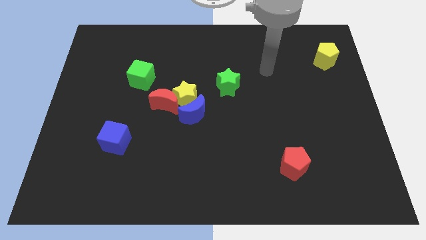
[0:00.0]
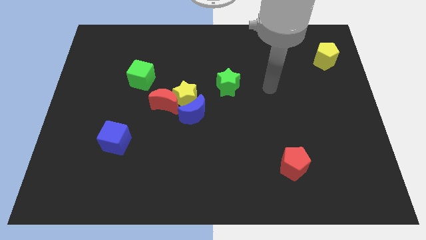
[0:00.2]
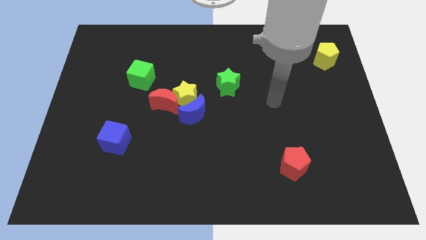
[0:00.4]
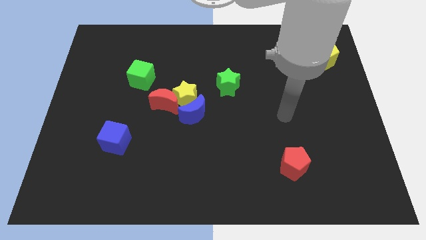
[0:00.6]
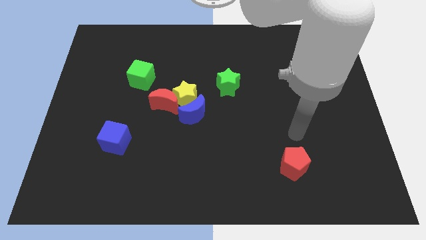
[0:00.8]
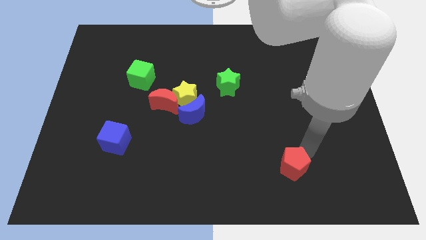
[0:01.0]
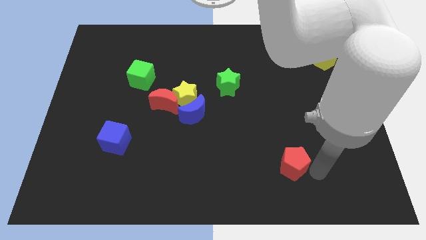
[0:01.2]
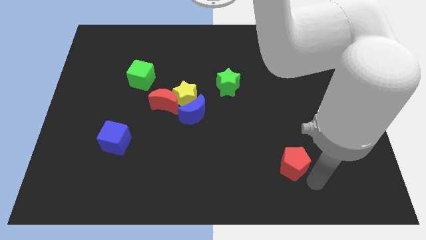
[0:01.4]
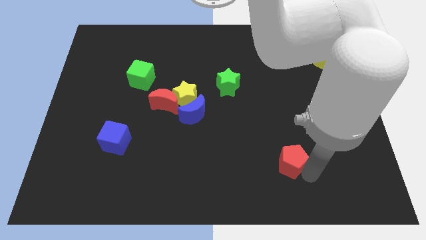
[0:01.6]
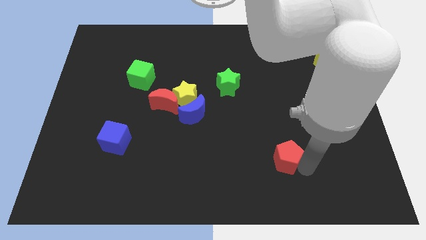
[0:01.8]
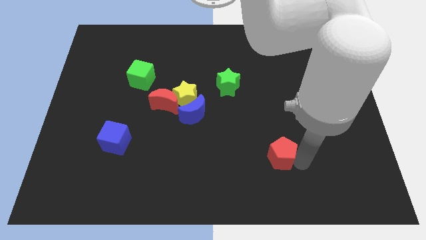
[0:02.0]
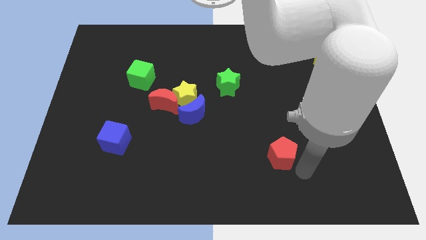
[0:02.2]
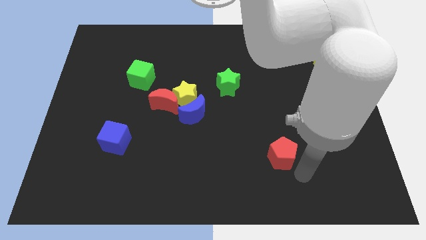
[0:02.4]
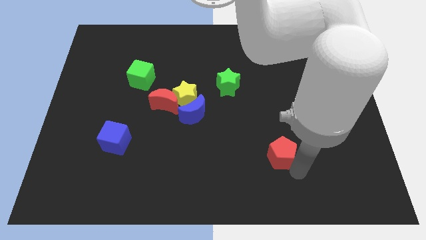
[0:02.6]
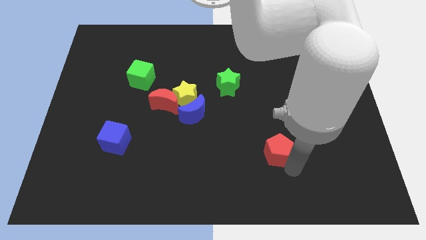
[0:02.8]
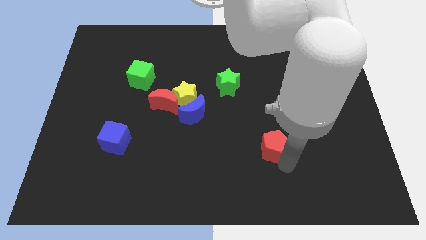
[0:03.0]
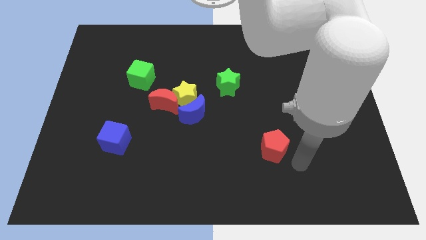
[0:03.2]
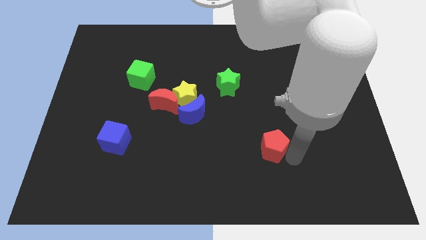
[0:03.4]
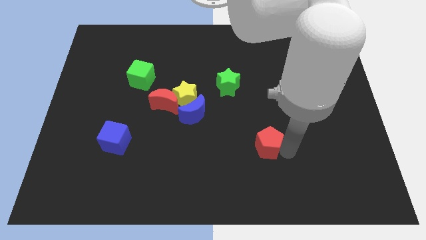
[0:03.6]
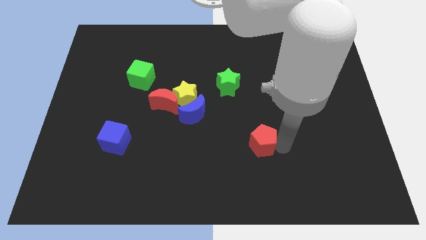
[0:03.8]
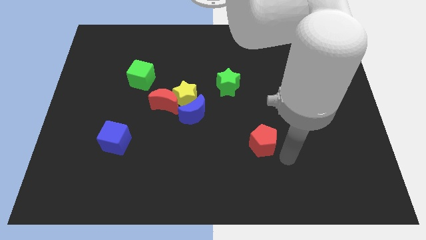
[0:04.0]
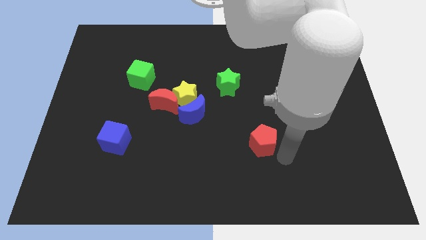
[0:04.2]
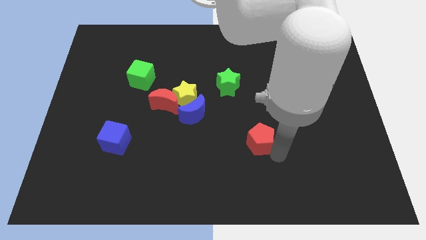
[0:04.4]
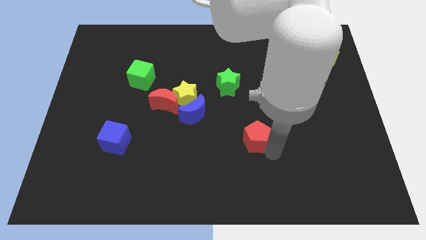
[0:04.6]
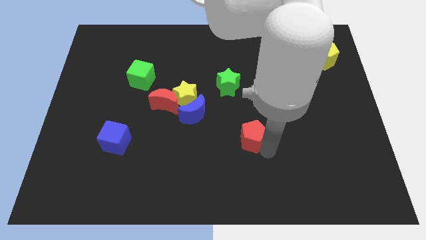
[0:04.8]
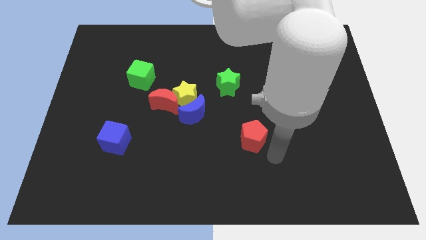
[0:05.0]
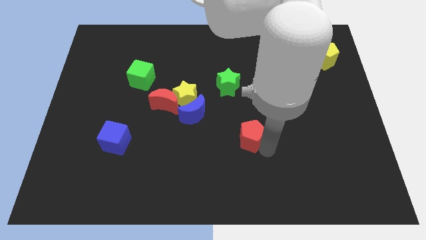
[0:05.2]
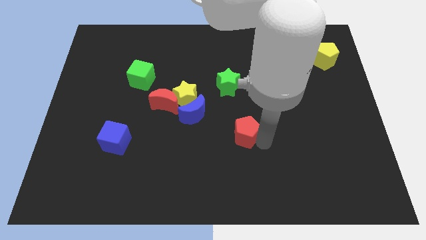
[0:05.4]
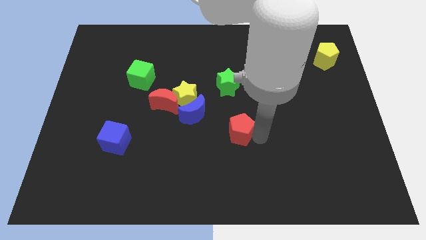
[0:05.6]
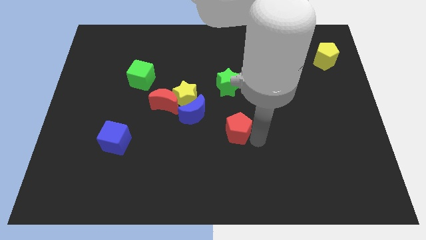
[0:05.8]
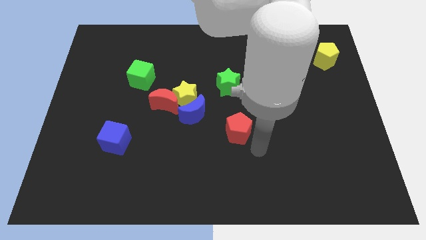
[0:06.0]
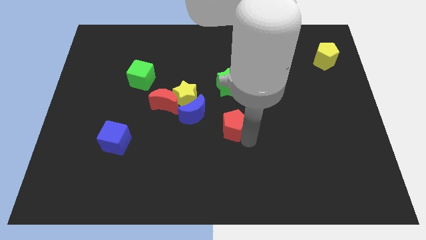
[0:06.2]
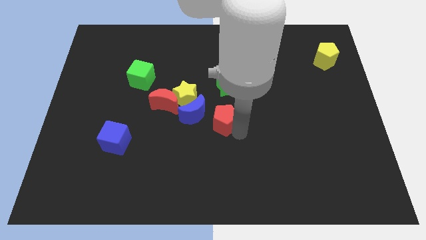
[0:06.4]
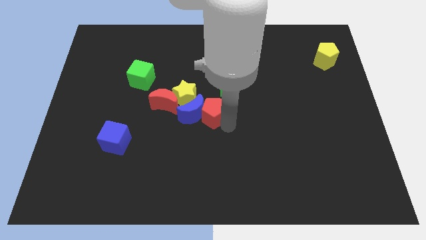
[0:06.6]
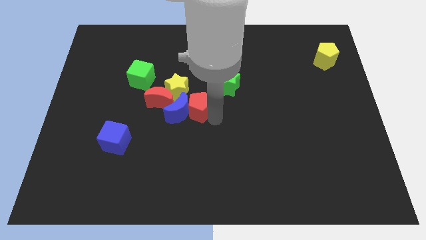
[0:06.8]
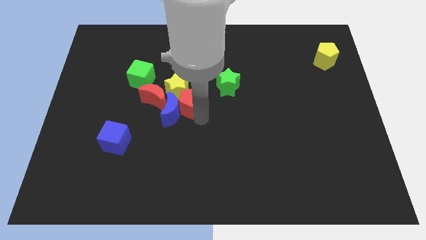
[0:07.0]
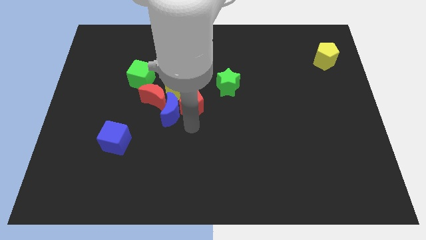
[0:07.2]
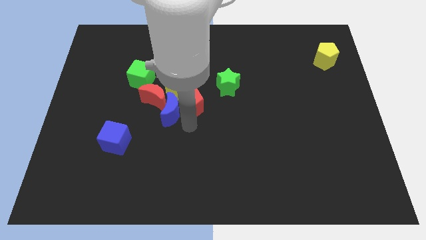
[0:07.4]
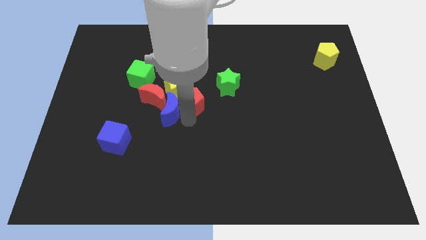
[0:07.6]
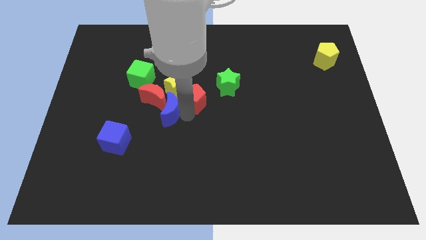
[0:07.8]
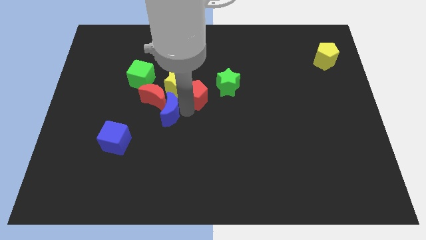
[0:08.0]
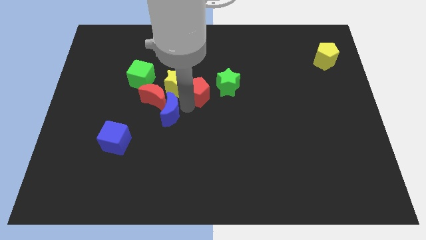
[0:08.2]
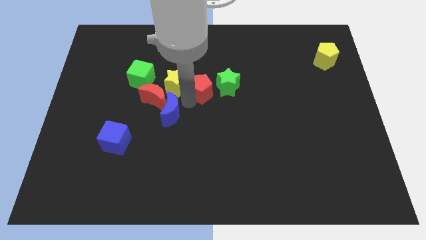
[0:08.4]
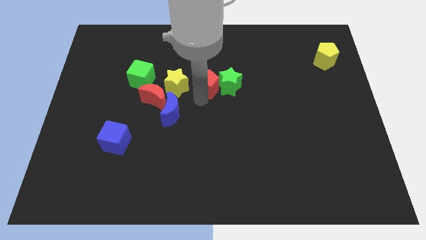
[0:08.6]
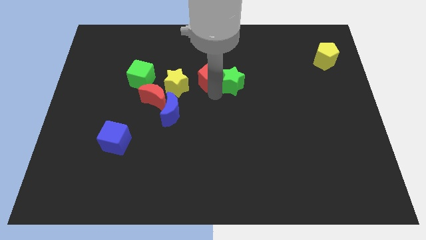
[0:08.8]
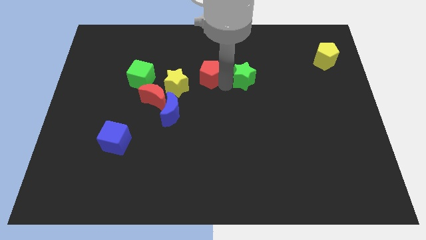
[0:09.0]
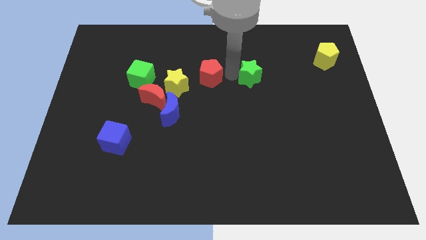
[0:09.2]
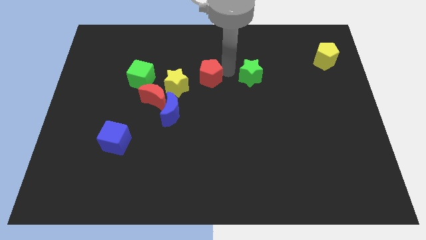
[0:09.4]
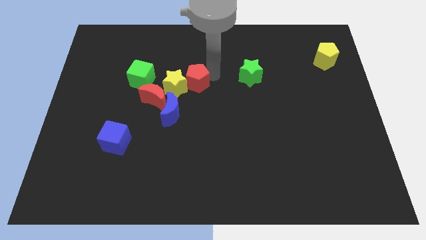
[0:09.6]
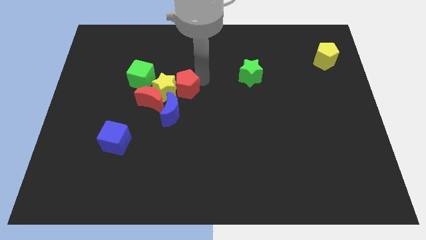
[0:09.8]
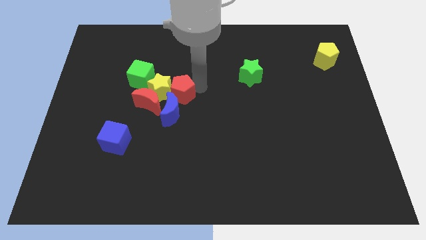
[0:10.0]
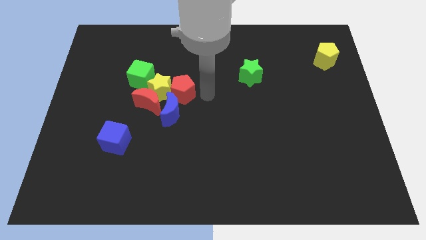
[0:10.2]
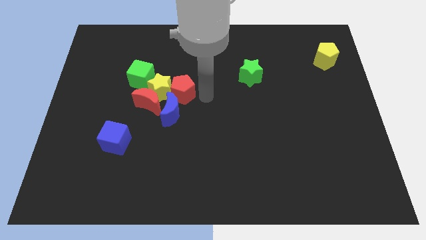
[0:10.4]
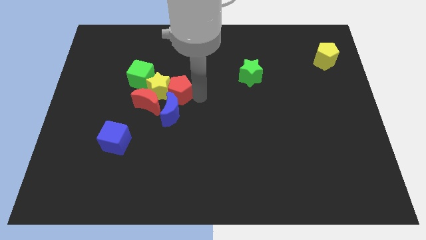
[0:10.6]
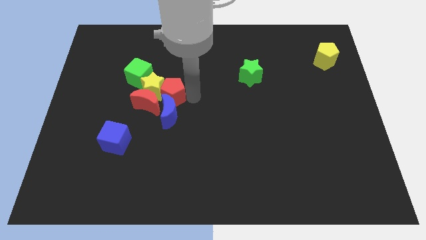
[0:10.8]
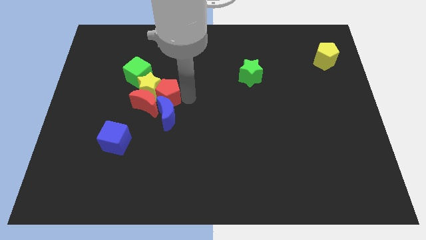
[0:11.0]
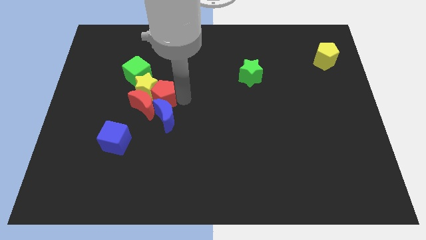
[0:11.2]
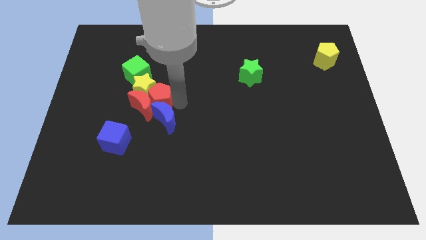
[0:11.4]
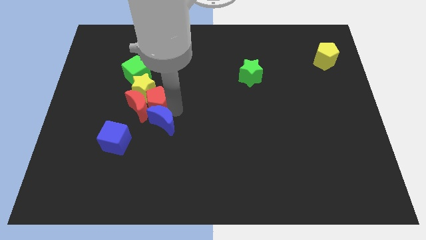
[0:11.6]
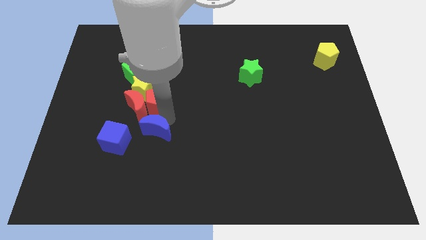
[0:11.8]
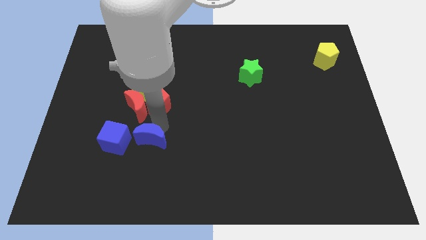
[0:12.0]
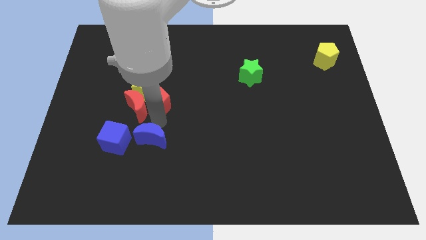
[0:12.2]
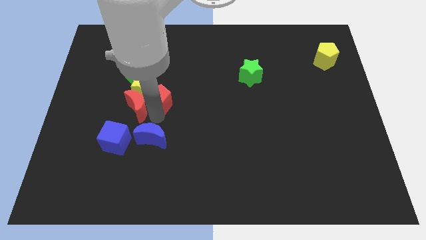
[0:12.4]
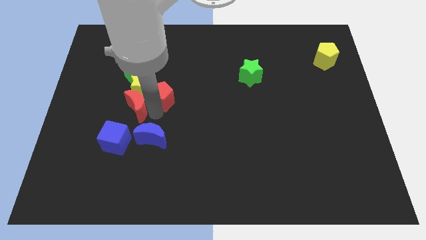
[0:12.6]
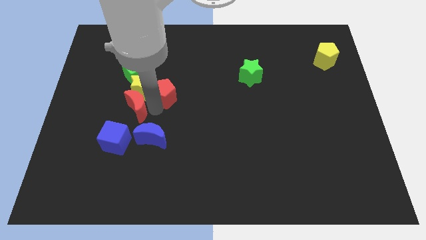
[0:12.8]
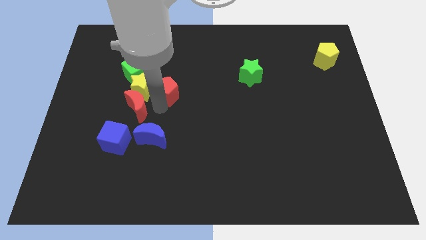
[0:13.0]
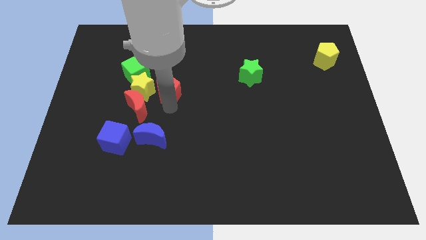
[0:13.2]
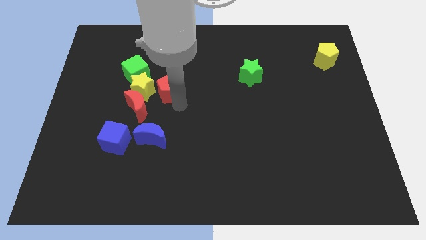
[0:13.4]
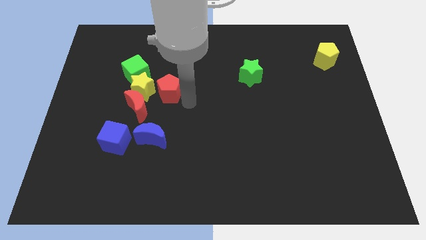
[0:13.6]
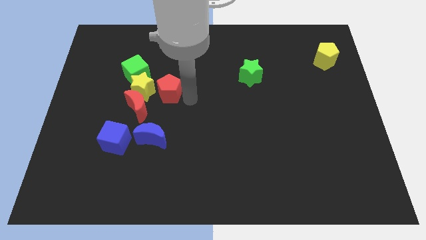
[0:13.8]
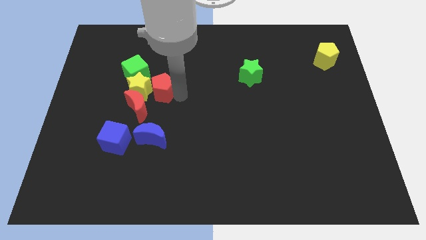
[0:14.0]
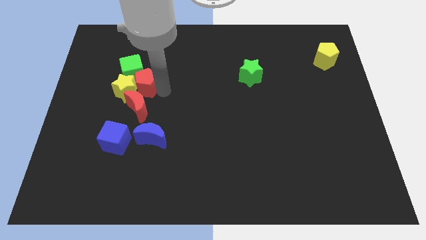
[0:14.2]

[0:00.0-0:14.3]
move the red pentagon next to the green cube

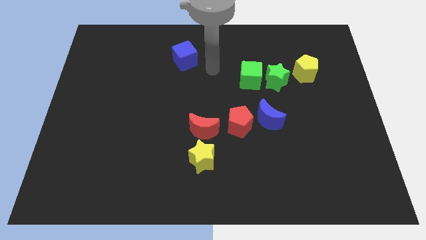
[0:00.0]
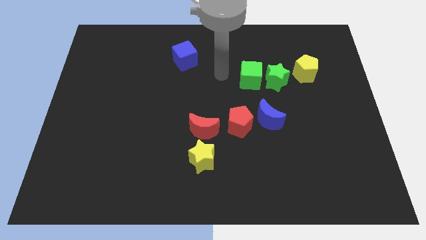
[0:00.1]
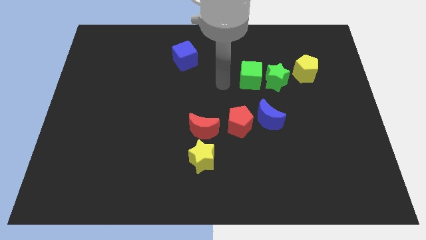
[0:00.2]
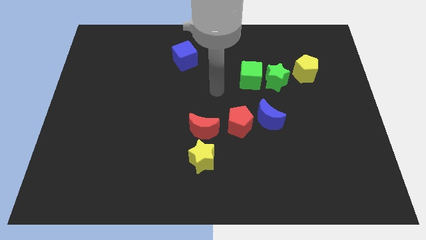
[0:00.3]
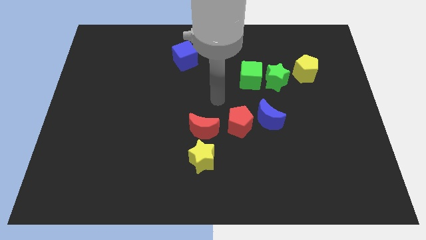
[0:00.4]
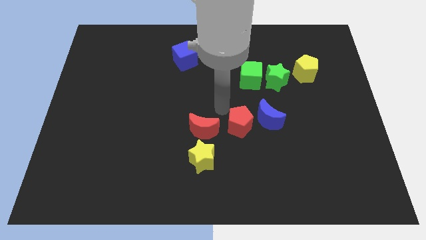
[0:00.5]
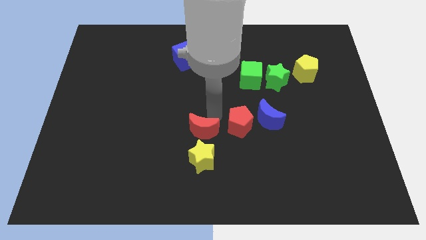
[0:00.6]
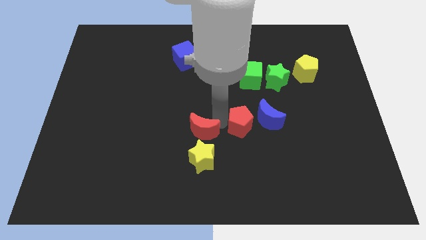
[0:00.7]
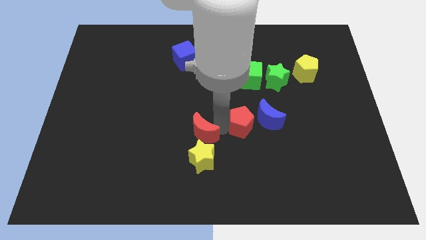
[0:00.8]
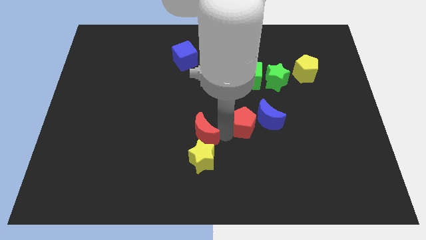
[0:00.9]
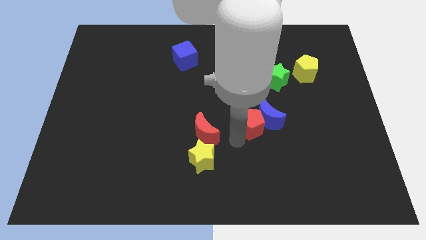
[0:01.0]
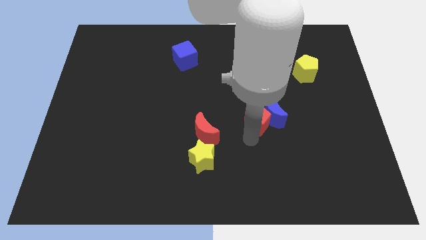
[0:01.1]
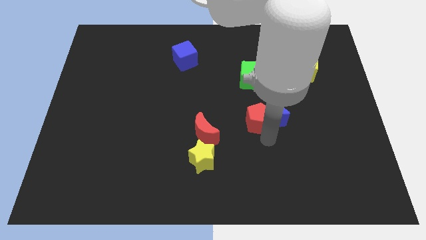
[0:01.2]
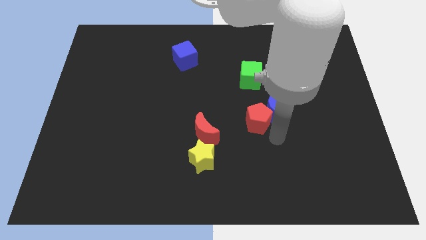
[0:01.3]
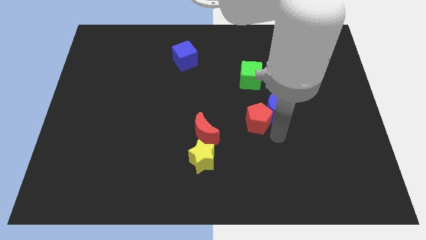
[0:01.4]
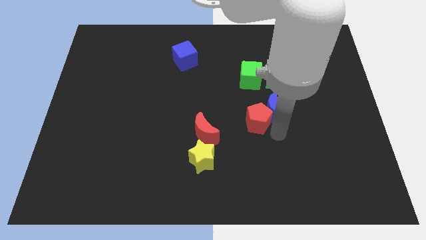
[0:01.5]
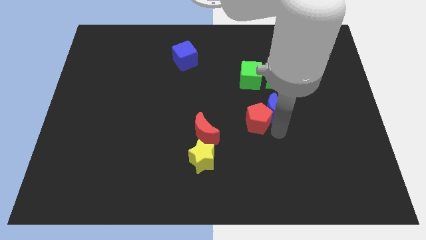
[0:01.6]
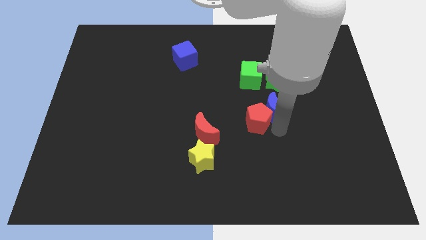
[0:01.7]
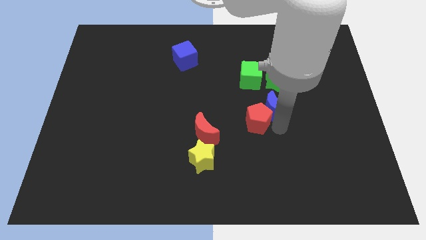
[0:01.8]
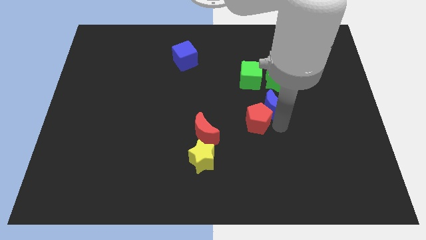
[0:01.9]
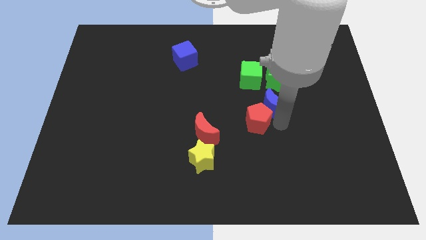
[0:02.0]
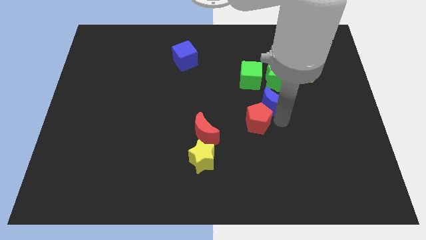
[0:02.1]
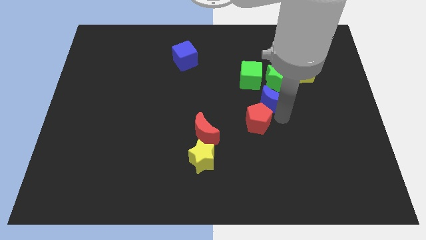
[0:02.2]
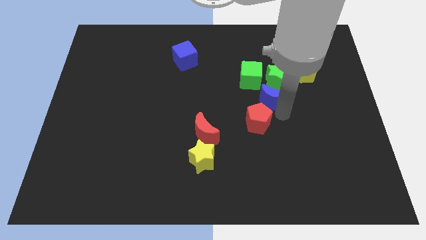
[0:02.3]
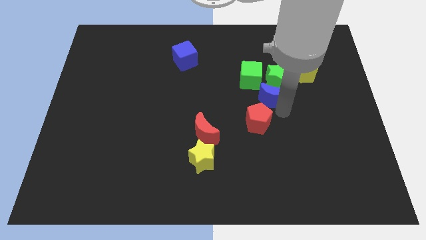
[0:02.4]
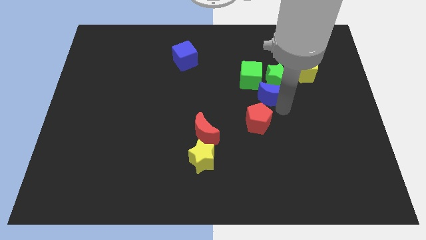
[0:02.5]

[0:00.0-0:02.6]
push the blue moon next to the green star
